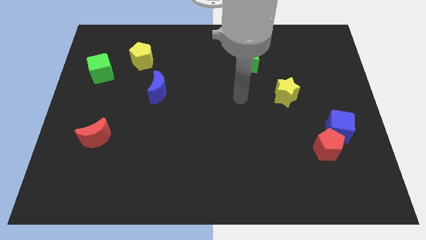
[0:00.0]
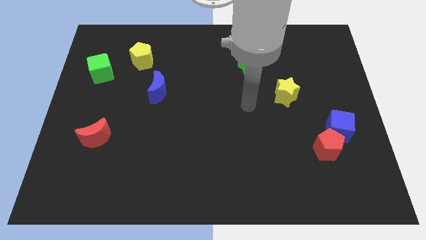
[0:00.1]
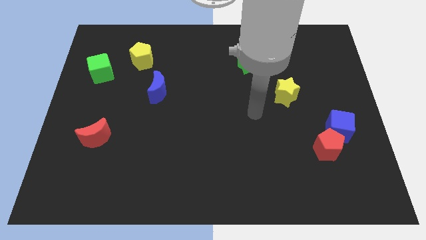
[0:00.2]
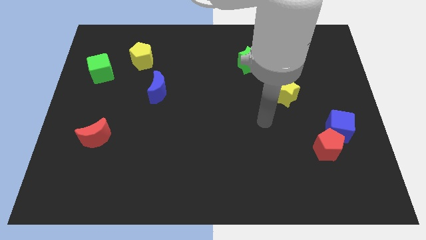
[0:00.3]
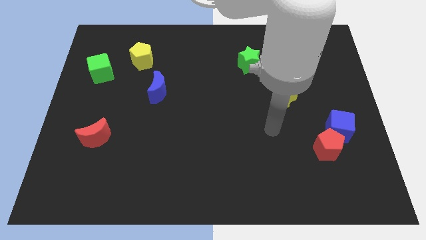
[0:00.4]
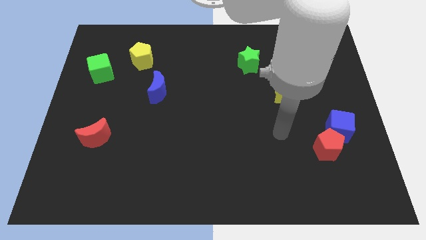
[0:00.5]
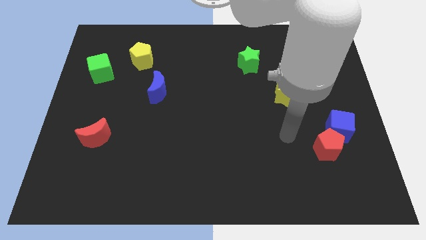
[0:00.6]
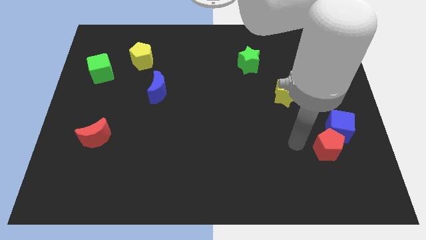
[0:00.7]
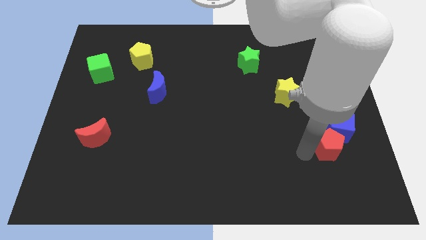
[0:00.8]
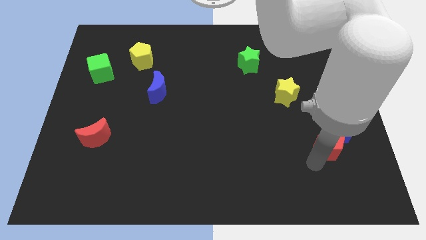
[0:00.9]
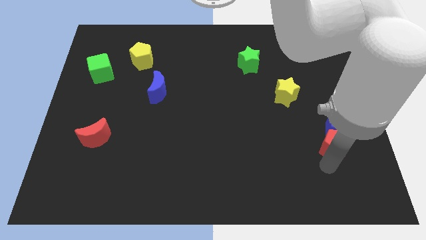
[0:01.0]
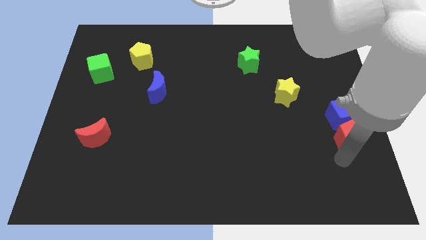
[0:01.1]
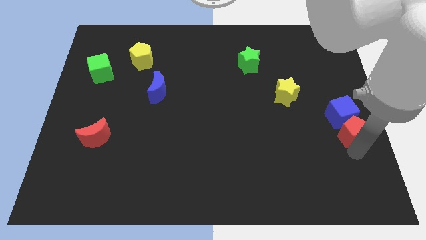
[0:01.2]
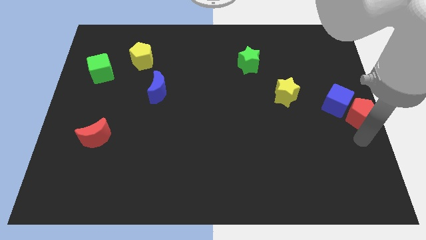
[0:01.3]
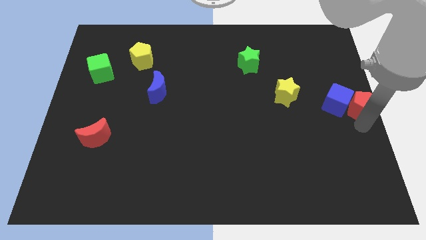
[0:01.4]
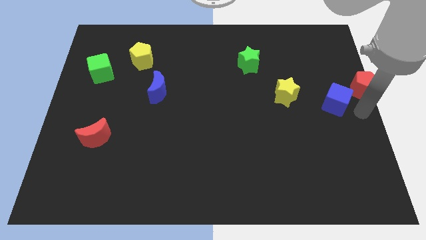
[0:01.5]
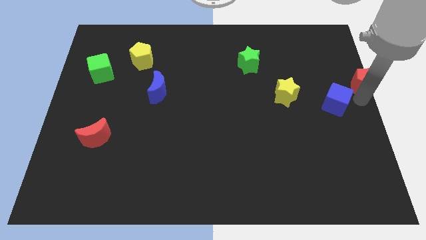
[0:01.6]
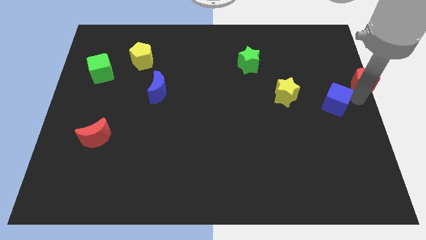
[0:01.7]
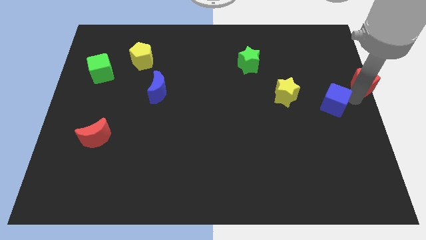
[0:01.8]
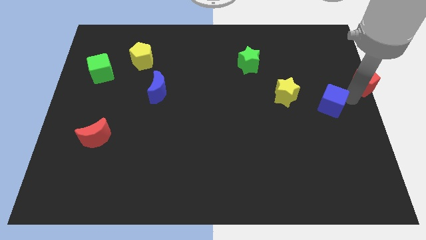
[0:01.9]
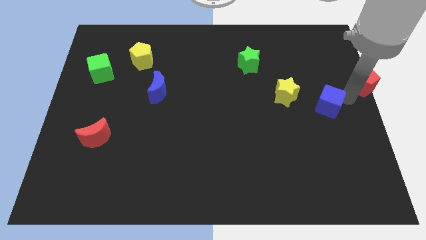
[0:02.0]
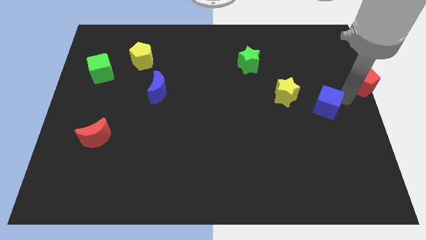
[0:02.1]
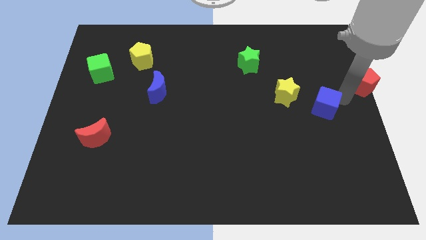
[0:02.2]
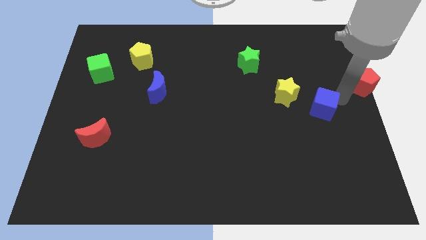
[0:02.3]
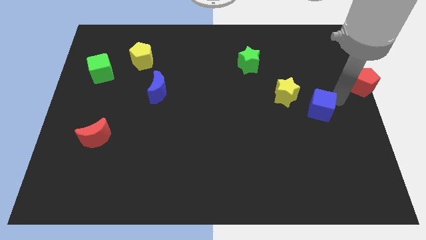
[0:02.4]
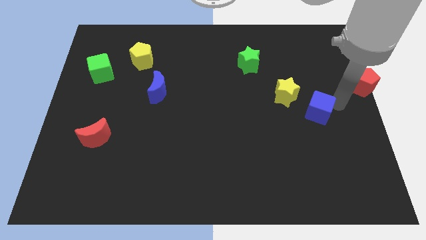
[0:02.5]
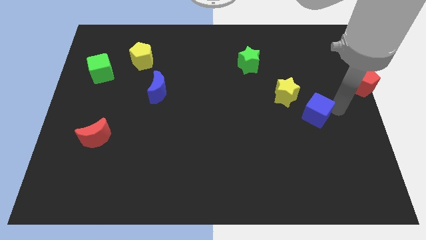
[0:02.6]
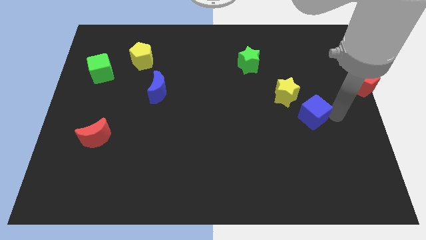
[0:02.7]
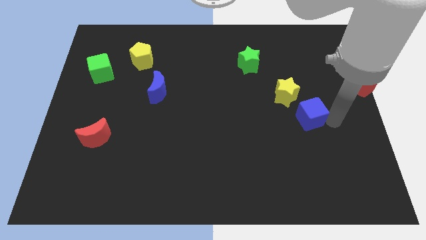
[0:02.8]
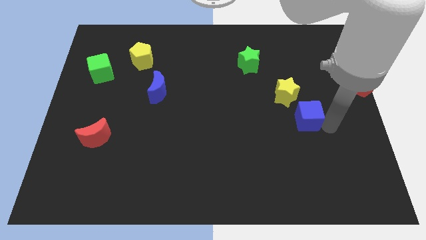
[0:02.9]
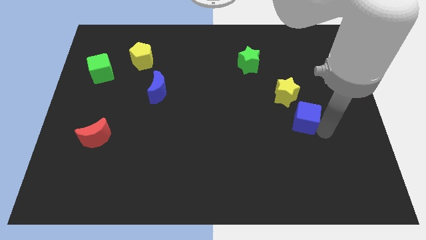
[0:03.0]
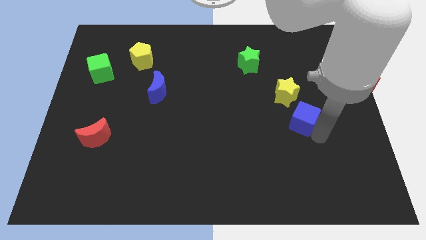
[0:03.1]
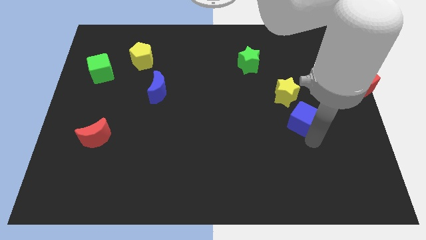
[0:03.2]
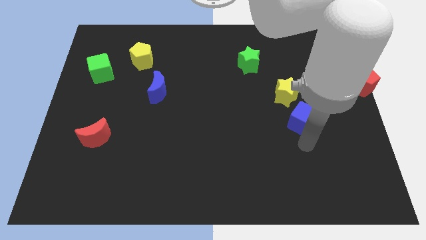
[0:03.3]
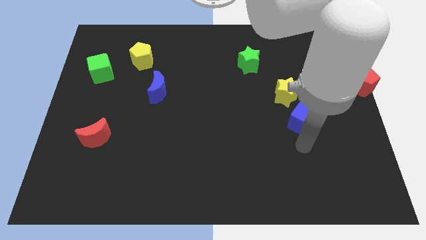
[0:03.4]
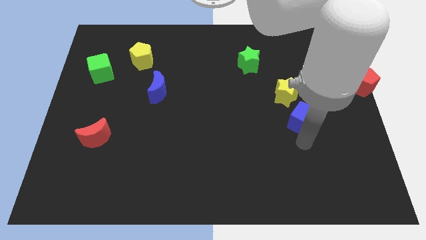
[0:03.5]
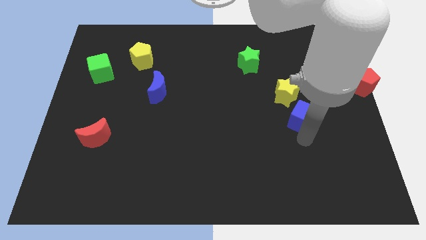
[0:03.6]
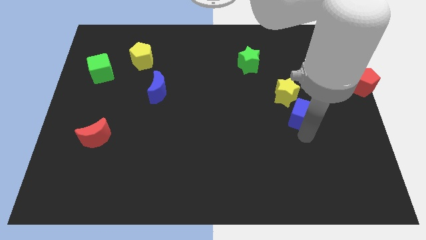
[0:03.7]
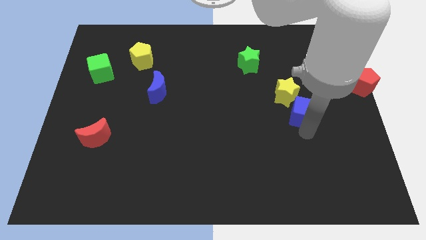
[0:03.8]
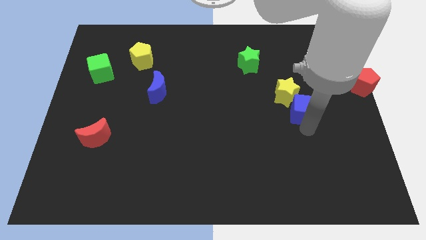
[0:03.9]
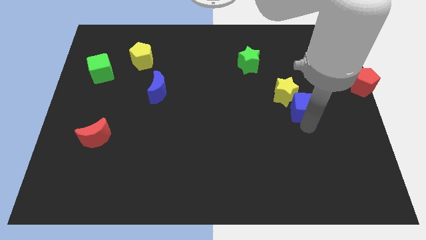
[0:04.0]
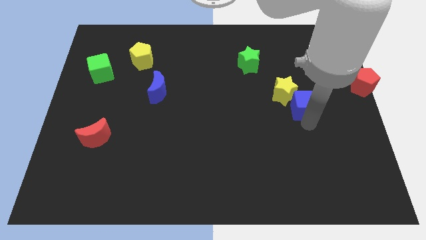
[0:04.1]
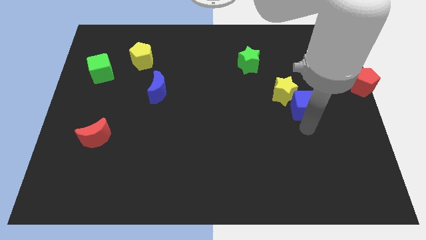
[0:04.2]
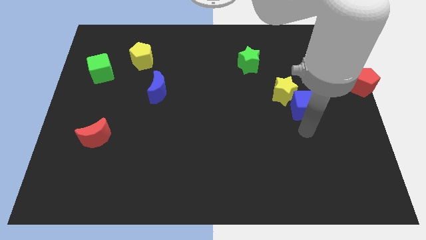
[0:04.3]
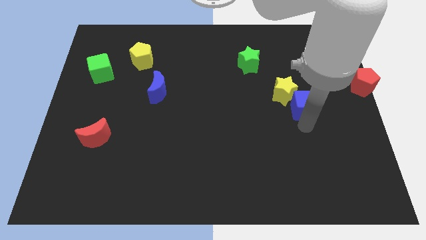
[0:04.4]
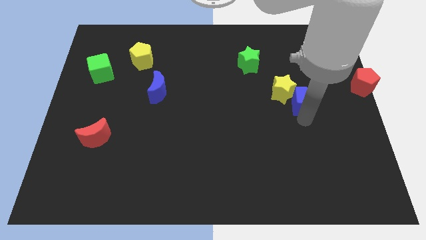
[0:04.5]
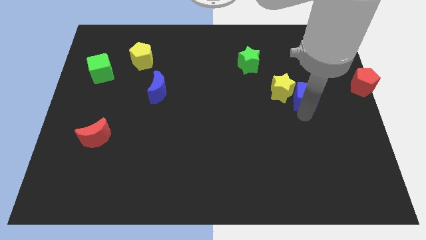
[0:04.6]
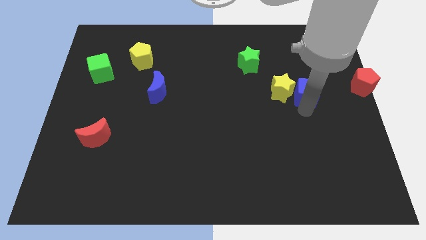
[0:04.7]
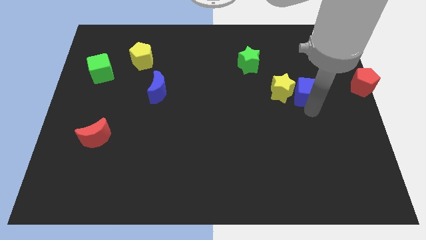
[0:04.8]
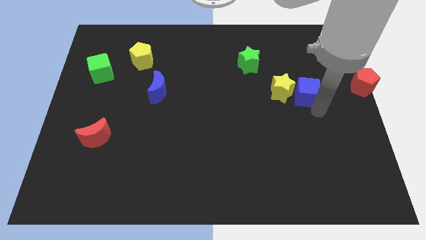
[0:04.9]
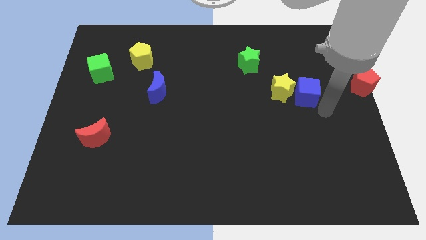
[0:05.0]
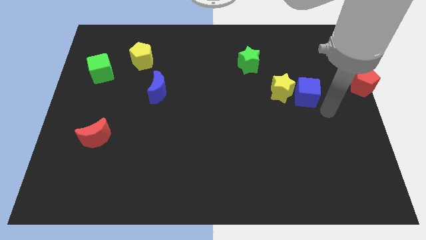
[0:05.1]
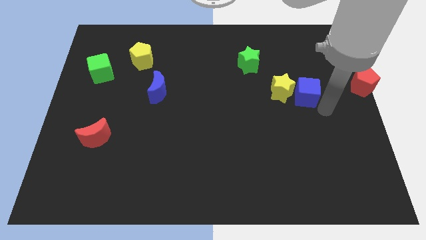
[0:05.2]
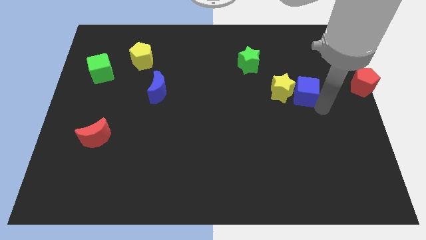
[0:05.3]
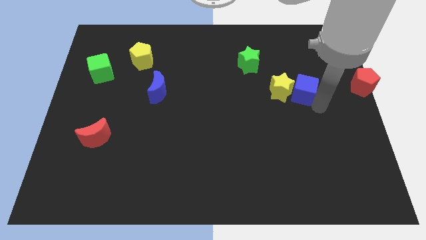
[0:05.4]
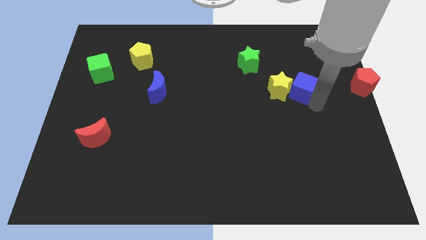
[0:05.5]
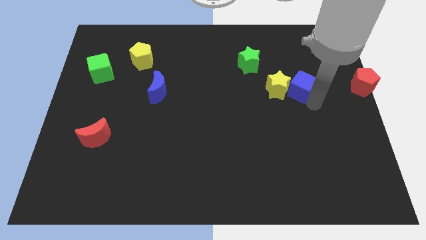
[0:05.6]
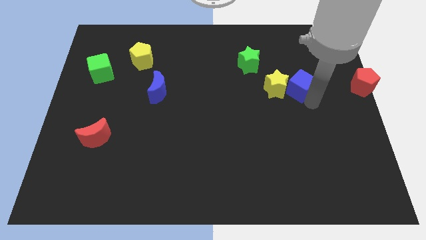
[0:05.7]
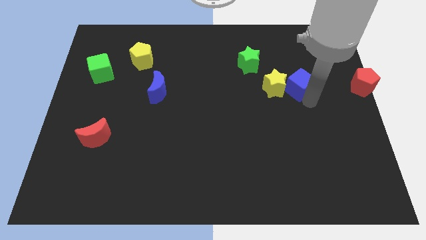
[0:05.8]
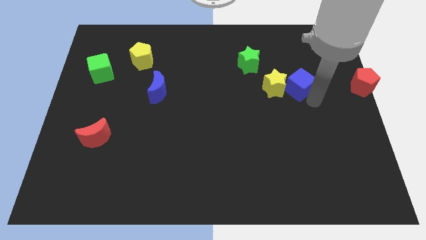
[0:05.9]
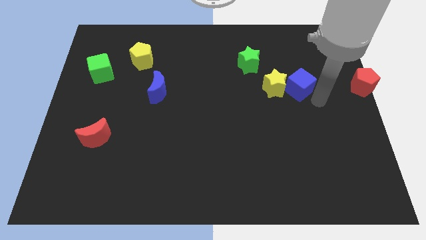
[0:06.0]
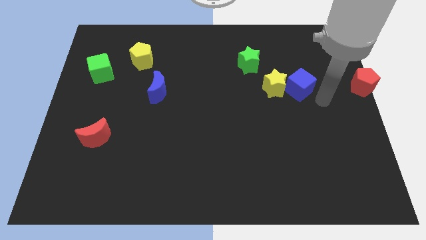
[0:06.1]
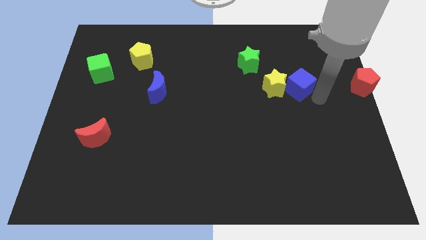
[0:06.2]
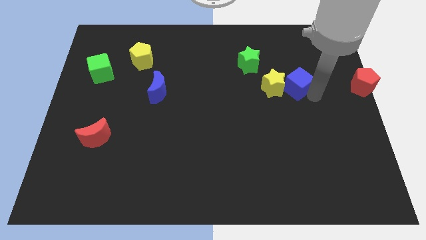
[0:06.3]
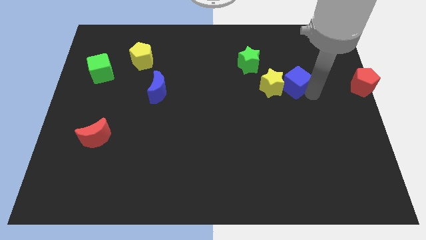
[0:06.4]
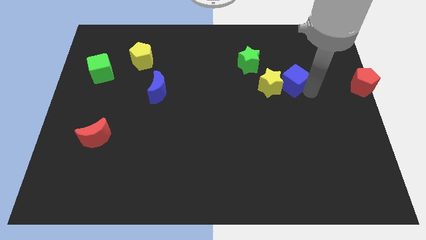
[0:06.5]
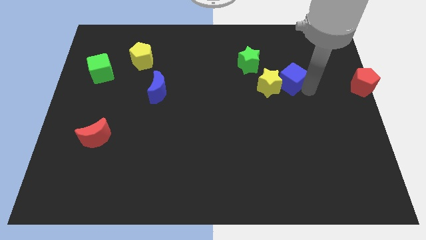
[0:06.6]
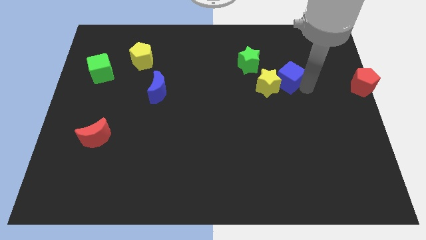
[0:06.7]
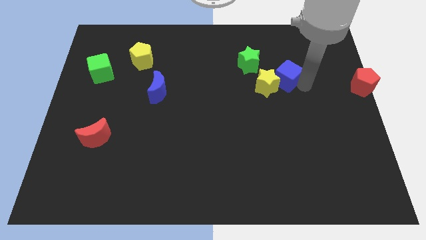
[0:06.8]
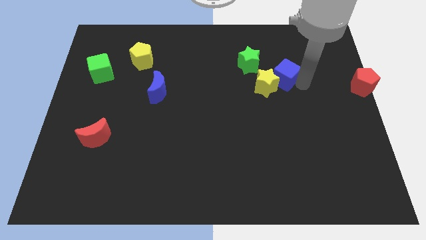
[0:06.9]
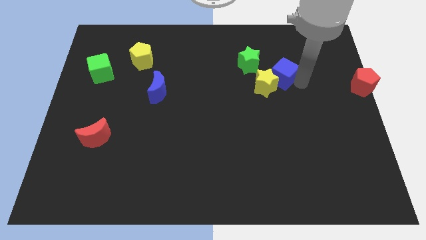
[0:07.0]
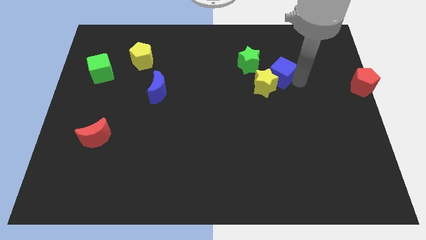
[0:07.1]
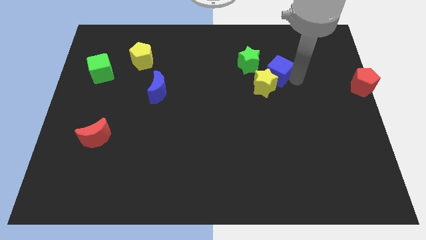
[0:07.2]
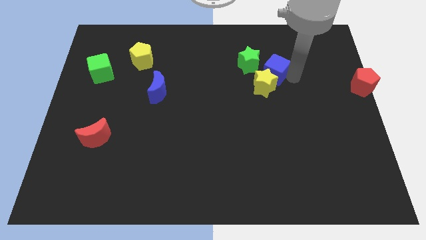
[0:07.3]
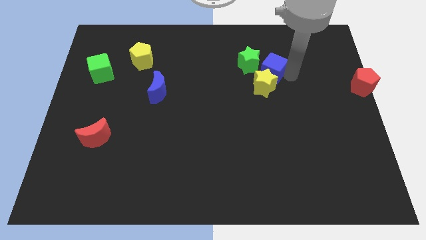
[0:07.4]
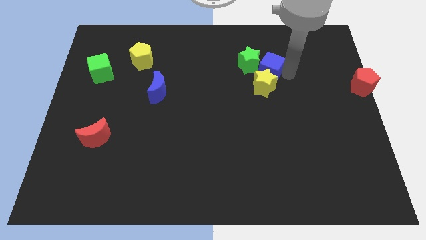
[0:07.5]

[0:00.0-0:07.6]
slide the blue cube towards the green star
